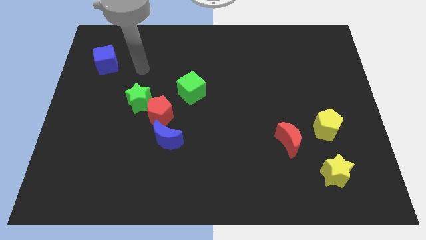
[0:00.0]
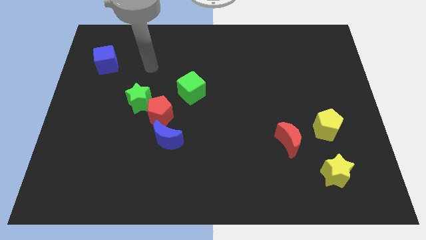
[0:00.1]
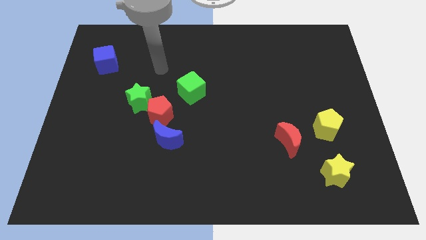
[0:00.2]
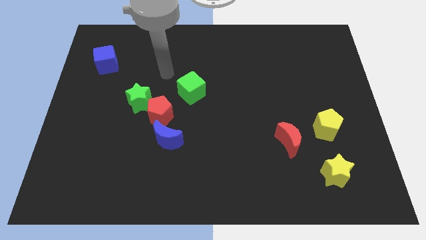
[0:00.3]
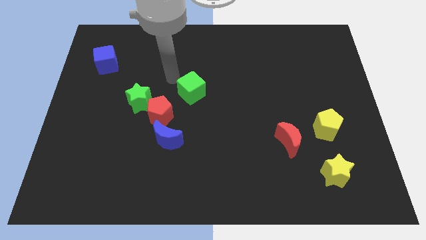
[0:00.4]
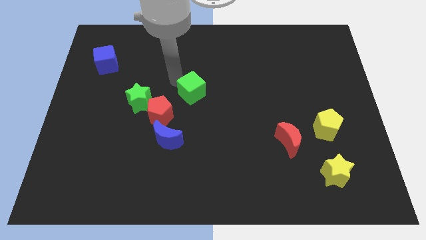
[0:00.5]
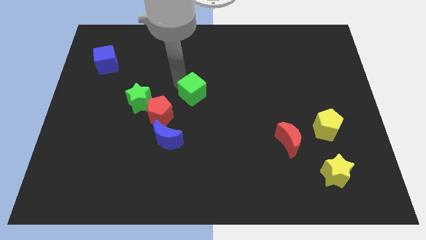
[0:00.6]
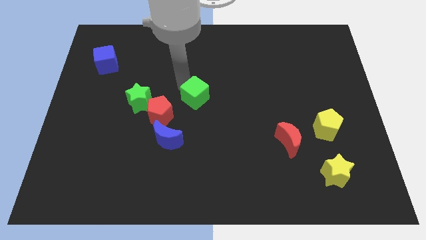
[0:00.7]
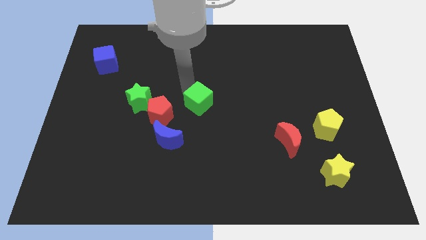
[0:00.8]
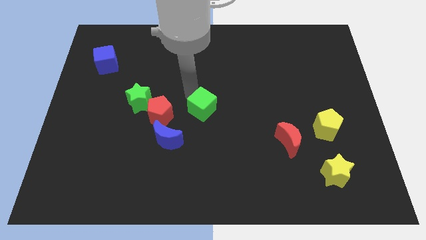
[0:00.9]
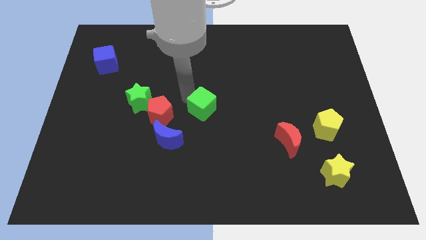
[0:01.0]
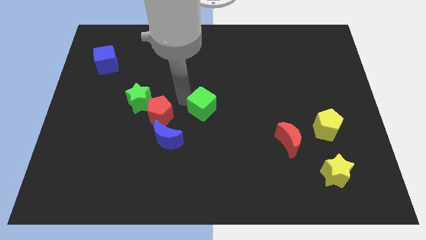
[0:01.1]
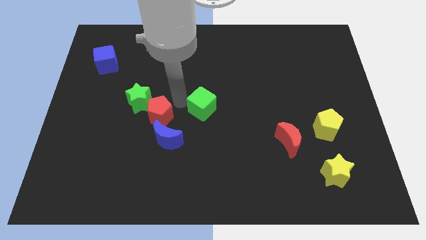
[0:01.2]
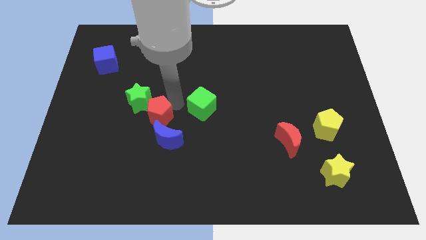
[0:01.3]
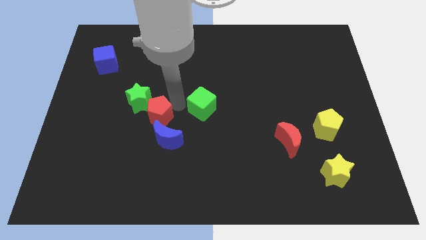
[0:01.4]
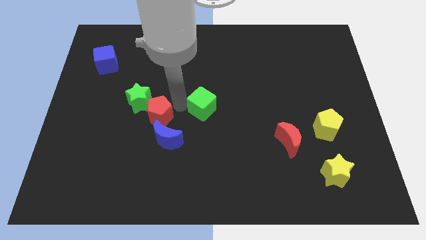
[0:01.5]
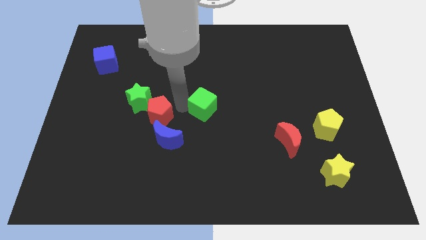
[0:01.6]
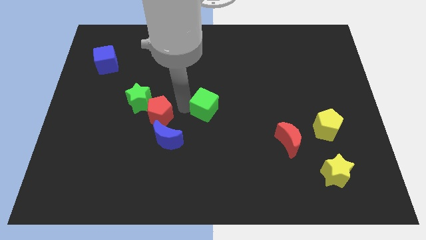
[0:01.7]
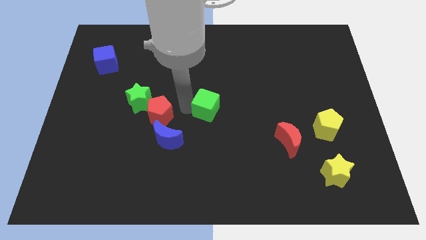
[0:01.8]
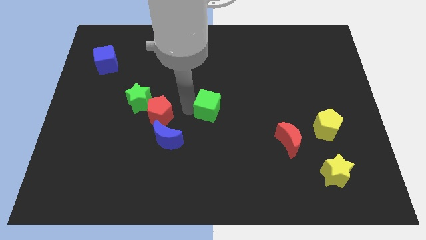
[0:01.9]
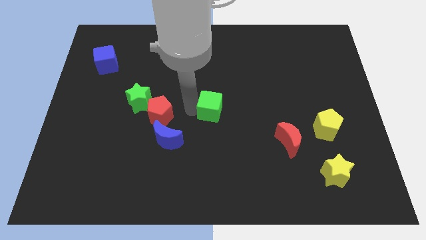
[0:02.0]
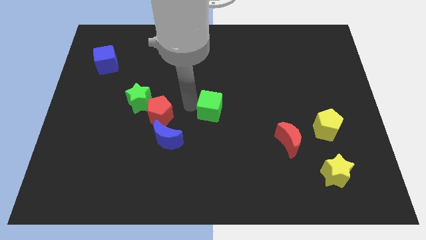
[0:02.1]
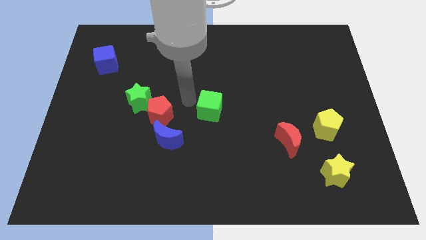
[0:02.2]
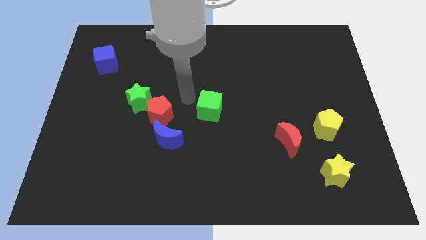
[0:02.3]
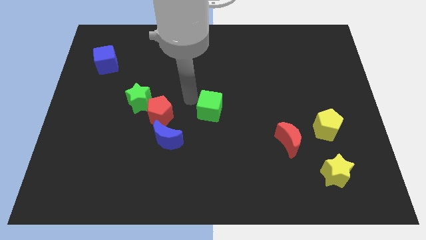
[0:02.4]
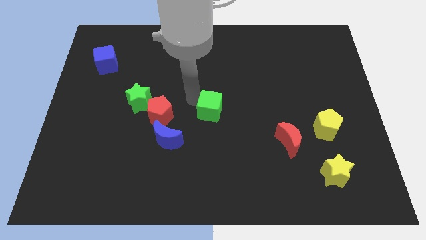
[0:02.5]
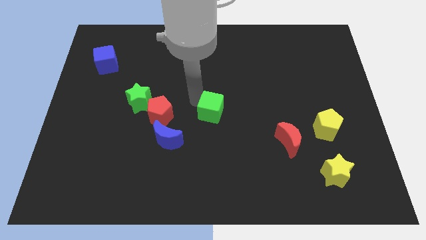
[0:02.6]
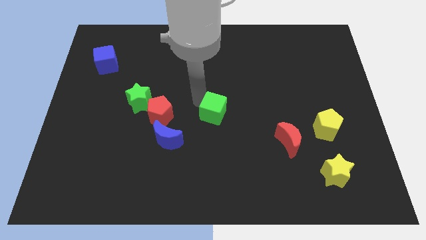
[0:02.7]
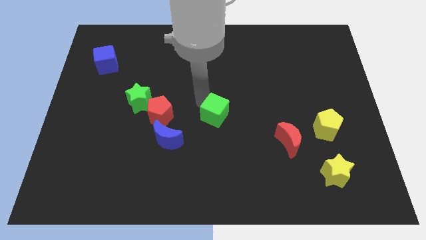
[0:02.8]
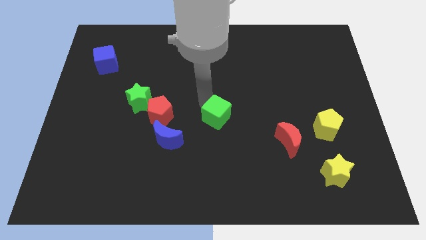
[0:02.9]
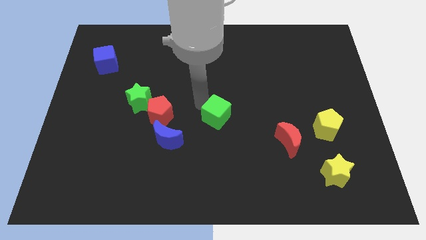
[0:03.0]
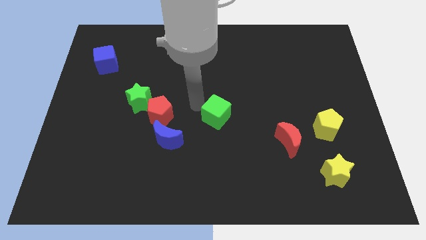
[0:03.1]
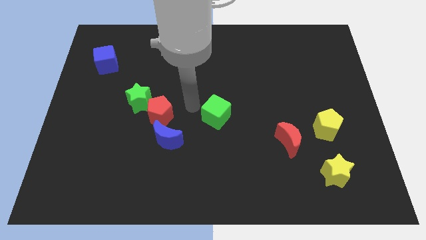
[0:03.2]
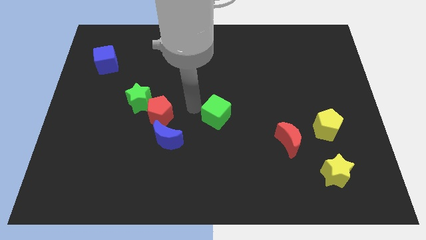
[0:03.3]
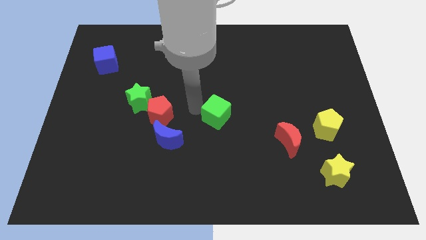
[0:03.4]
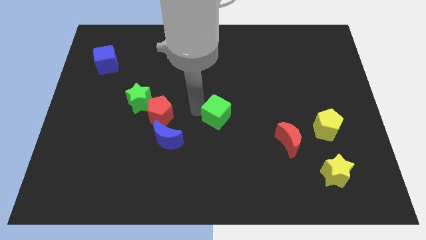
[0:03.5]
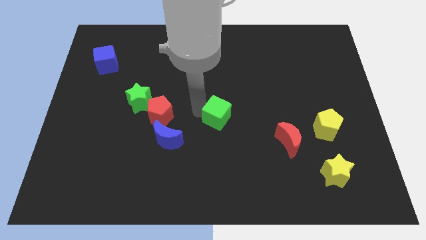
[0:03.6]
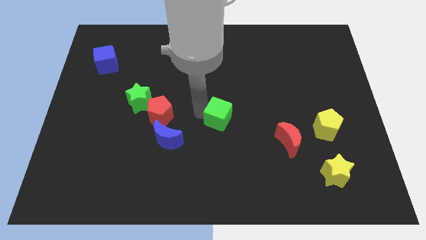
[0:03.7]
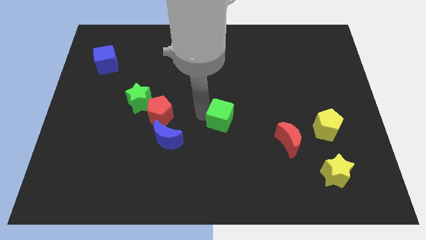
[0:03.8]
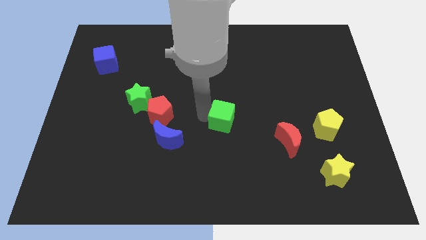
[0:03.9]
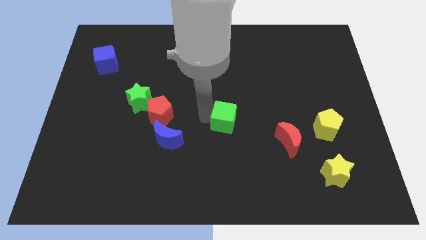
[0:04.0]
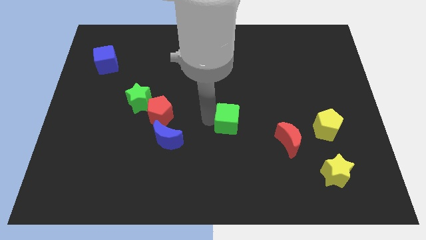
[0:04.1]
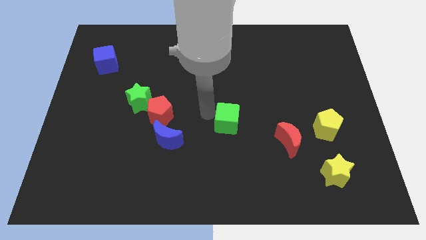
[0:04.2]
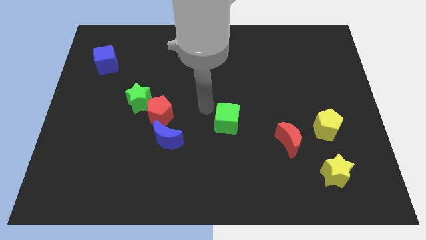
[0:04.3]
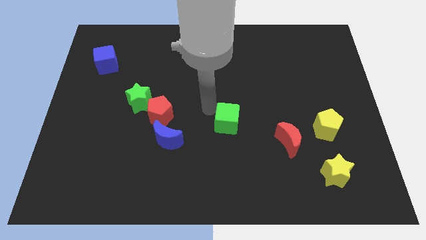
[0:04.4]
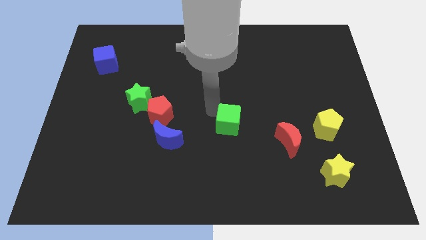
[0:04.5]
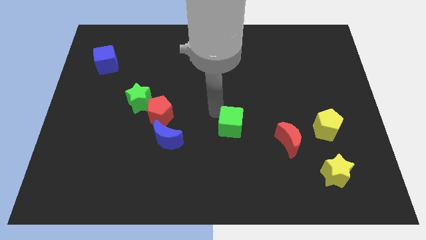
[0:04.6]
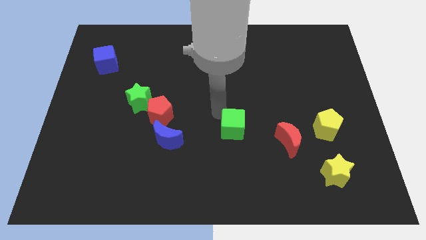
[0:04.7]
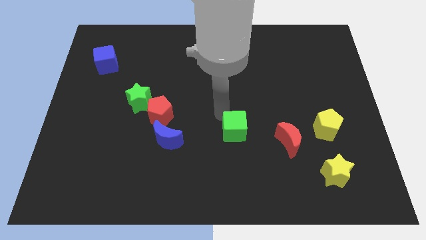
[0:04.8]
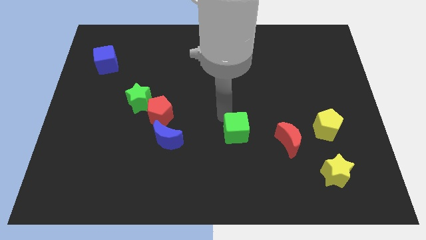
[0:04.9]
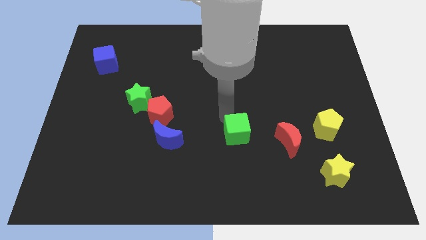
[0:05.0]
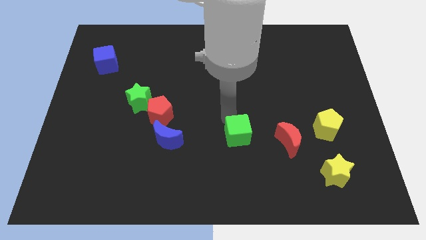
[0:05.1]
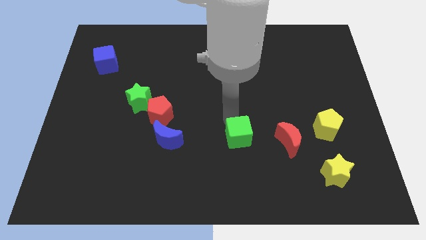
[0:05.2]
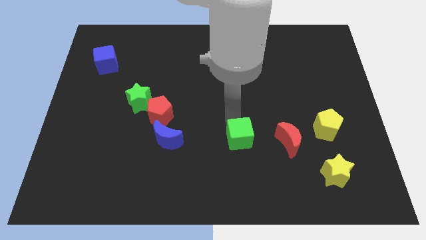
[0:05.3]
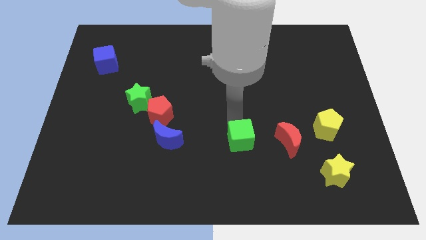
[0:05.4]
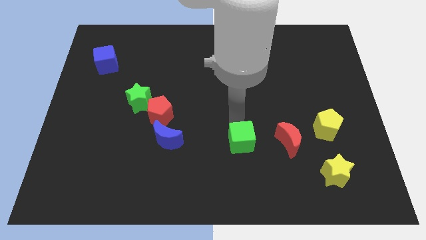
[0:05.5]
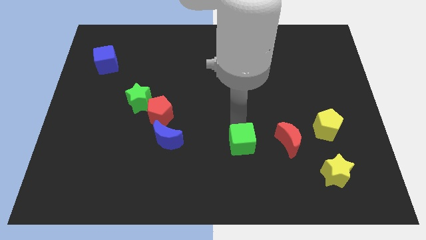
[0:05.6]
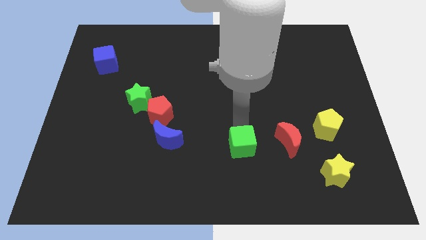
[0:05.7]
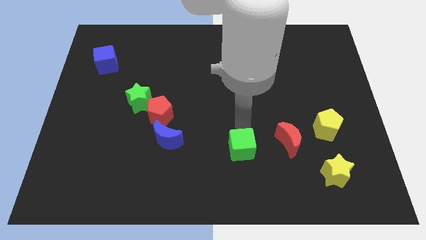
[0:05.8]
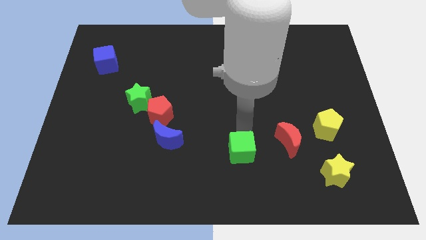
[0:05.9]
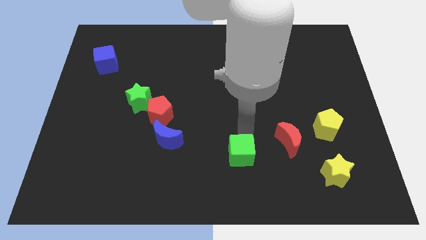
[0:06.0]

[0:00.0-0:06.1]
push the green cube down and to the right

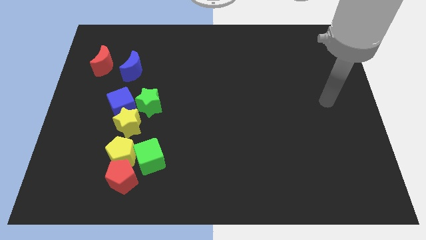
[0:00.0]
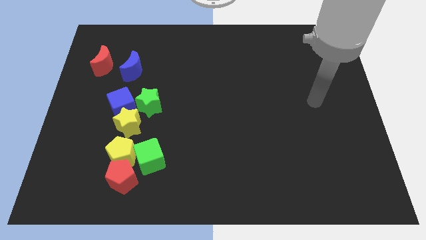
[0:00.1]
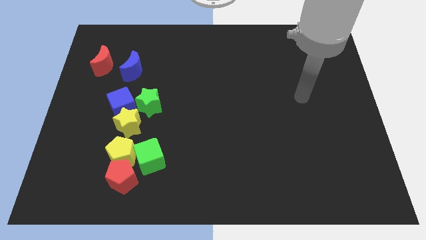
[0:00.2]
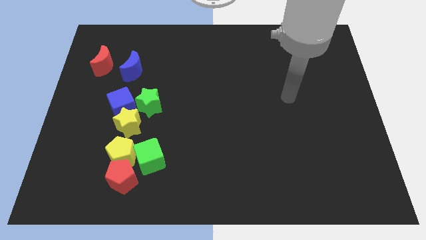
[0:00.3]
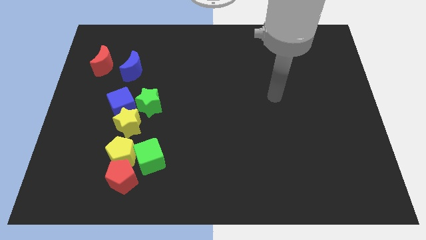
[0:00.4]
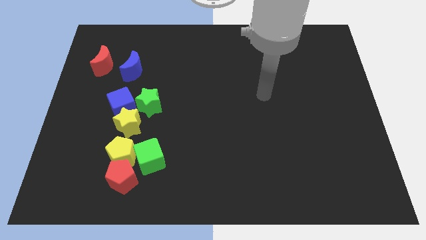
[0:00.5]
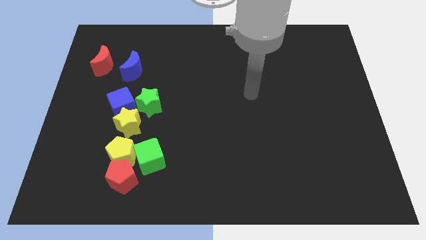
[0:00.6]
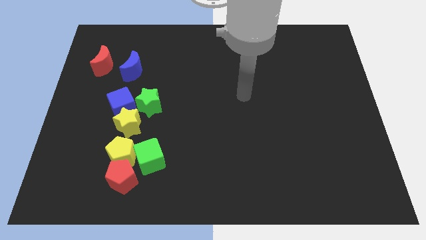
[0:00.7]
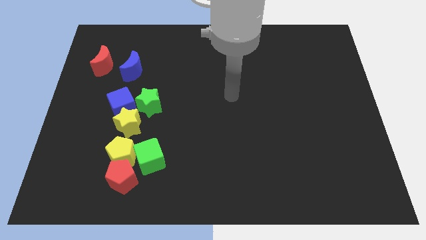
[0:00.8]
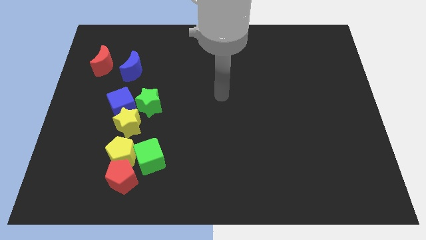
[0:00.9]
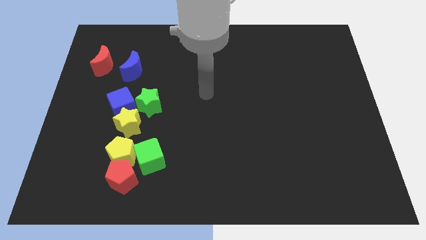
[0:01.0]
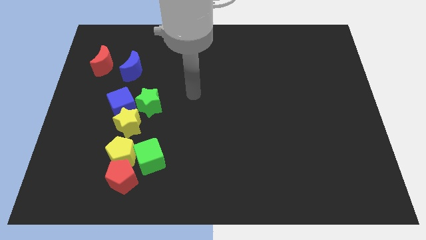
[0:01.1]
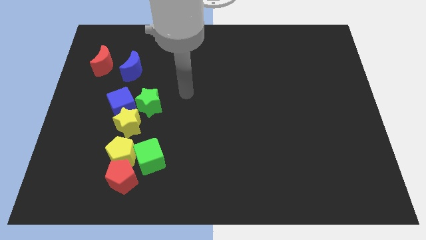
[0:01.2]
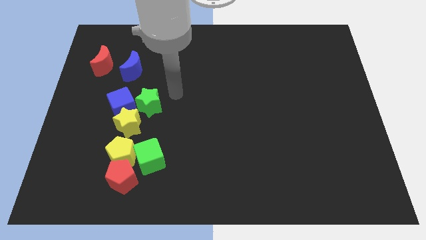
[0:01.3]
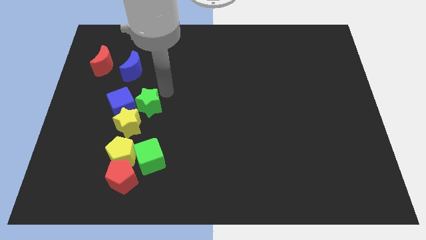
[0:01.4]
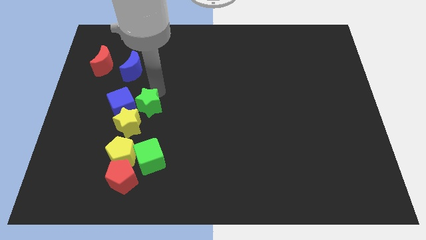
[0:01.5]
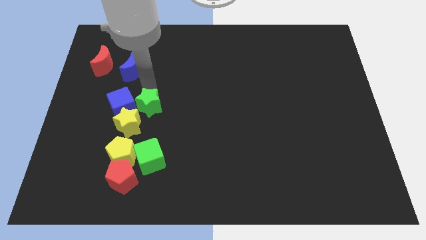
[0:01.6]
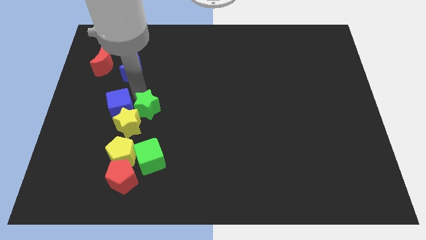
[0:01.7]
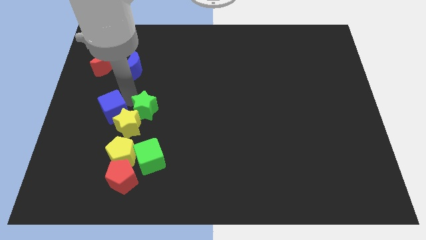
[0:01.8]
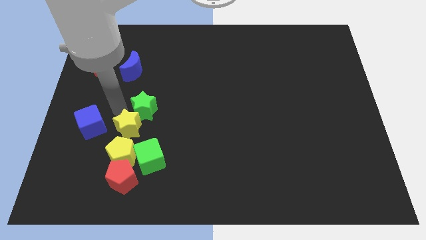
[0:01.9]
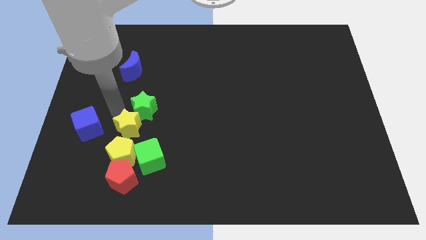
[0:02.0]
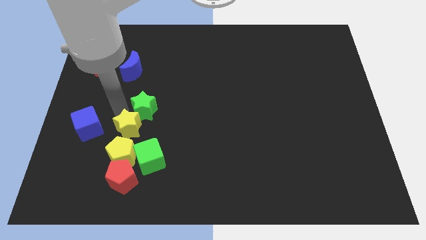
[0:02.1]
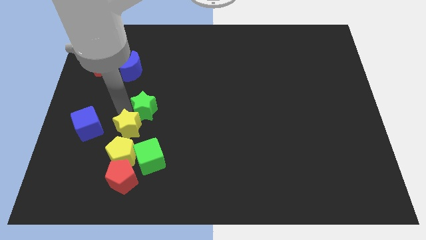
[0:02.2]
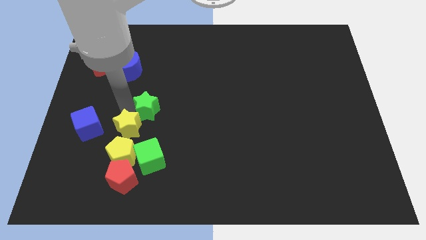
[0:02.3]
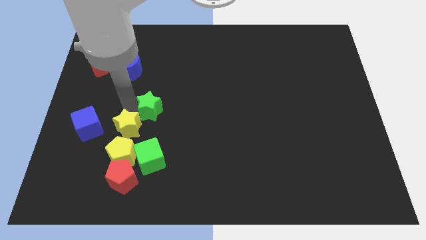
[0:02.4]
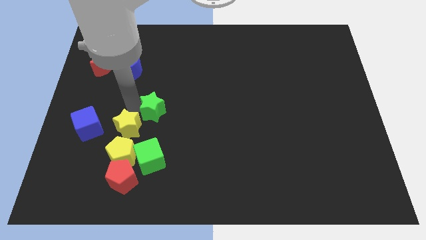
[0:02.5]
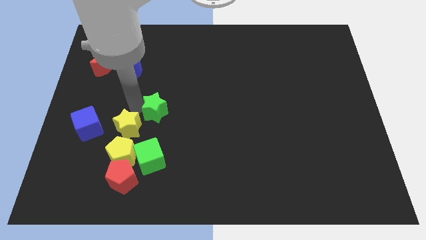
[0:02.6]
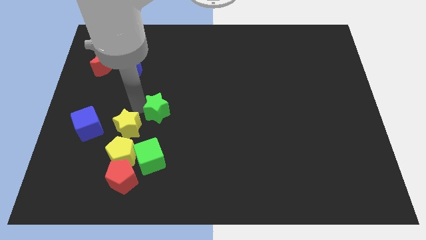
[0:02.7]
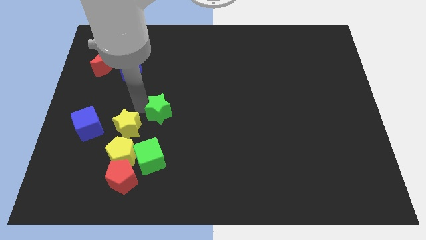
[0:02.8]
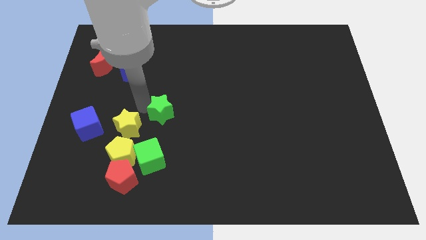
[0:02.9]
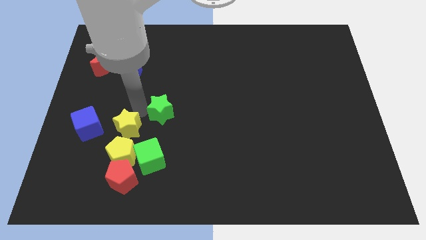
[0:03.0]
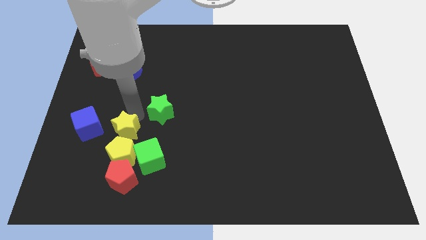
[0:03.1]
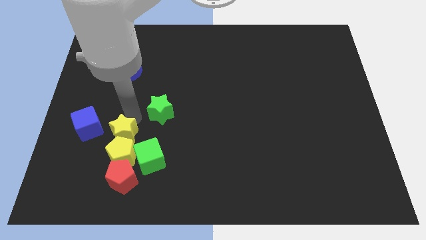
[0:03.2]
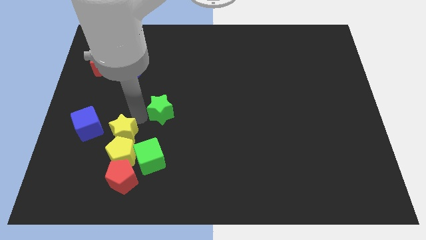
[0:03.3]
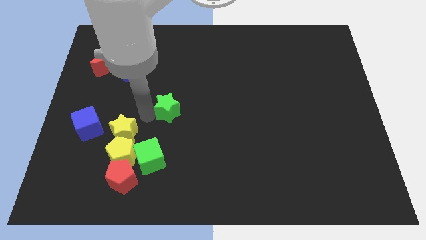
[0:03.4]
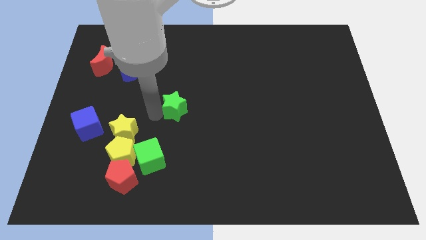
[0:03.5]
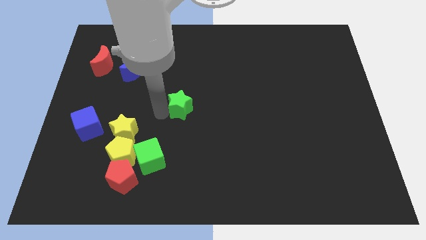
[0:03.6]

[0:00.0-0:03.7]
slightly move the green star to the right
